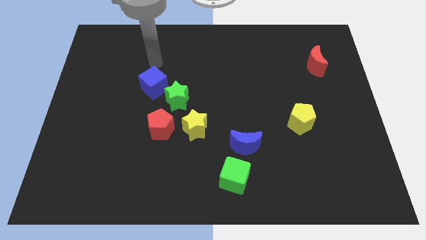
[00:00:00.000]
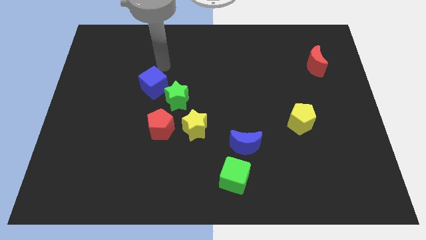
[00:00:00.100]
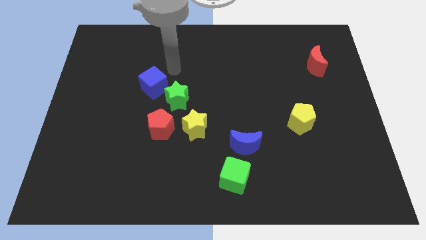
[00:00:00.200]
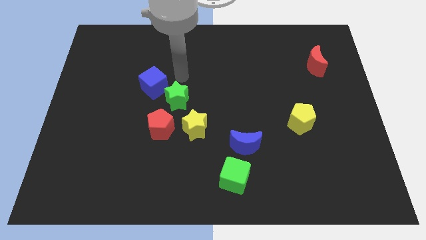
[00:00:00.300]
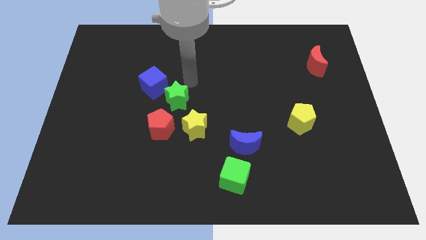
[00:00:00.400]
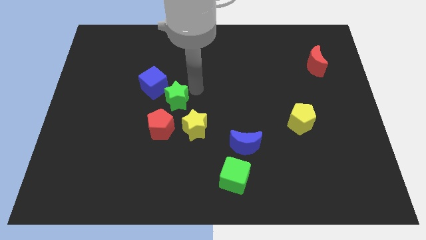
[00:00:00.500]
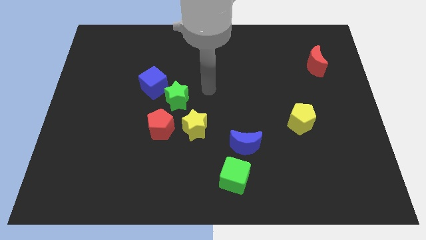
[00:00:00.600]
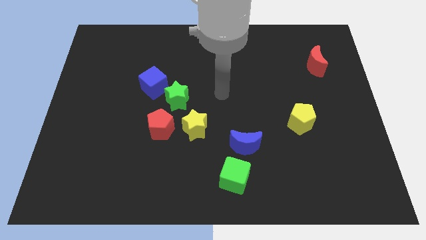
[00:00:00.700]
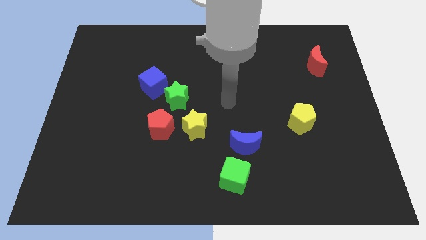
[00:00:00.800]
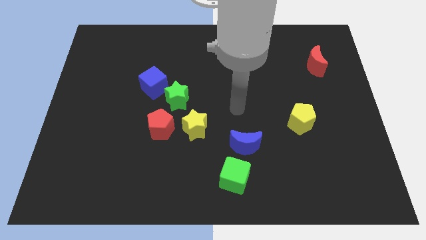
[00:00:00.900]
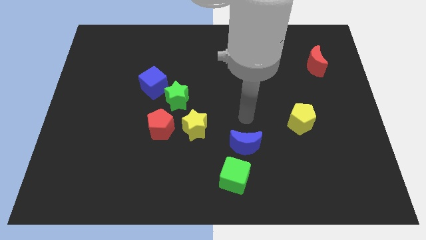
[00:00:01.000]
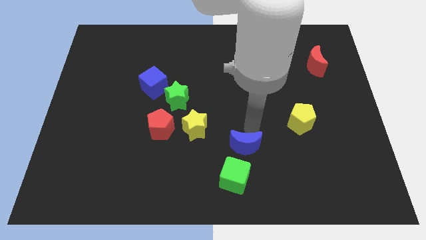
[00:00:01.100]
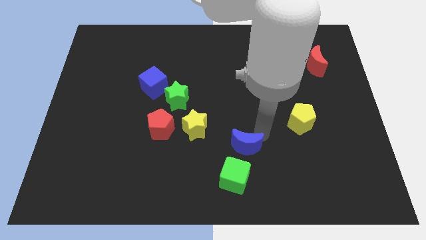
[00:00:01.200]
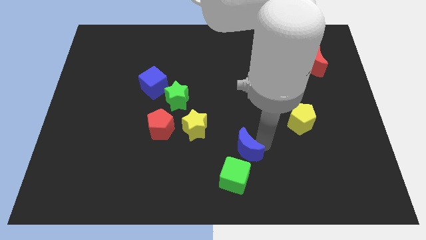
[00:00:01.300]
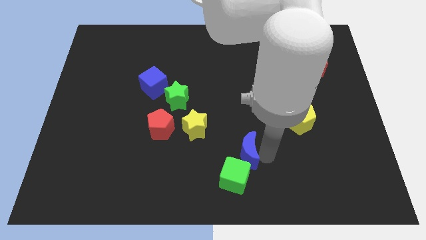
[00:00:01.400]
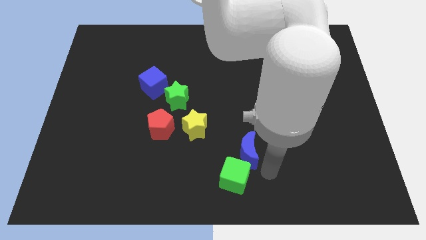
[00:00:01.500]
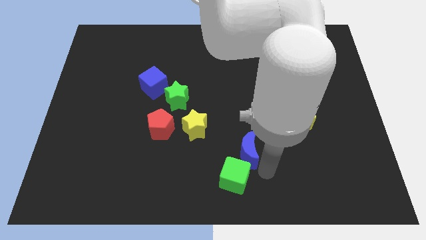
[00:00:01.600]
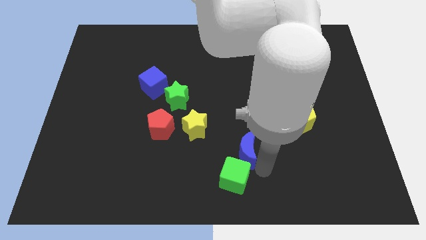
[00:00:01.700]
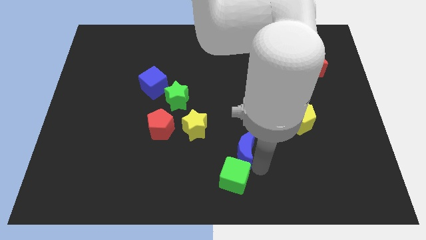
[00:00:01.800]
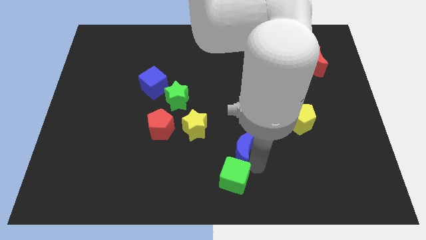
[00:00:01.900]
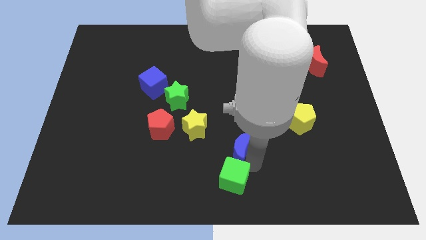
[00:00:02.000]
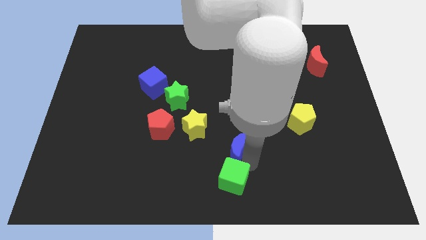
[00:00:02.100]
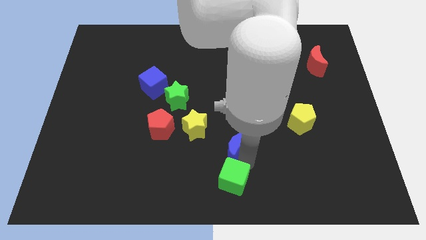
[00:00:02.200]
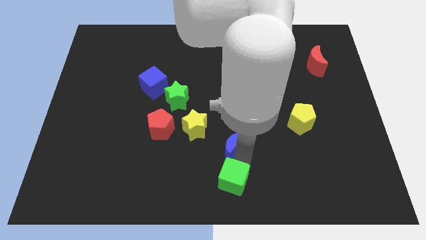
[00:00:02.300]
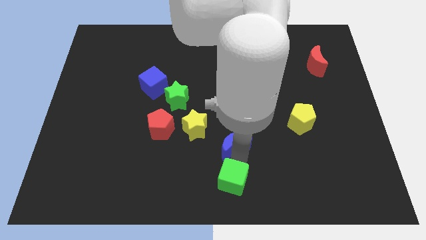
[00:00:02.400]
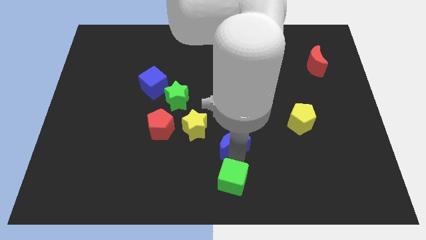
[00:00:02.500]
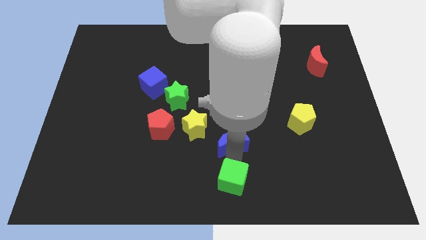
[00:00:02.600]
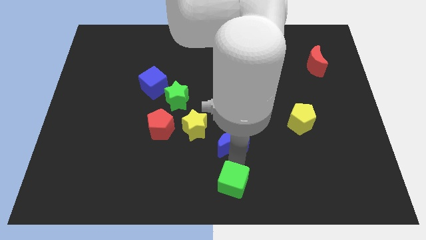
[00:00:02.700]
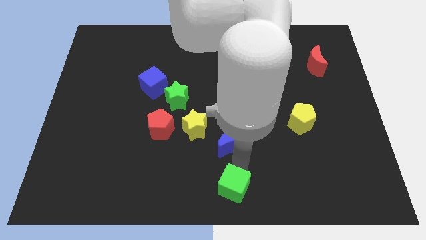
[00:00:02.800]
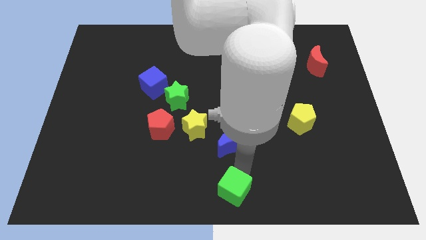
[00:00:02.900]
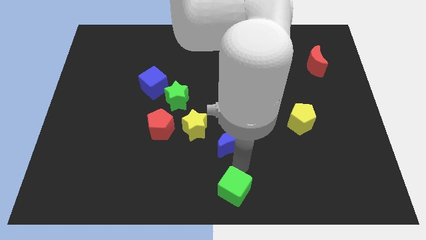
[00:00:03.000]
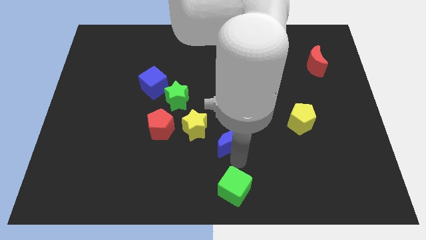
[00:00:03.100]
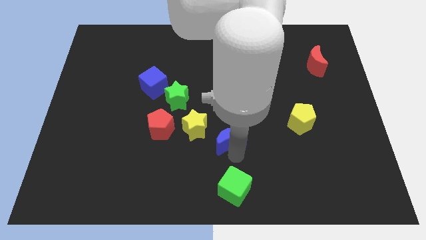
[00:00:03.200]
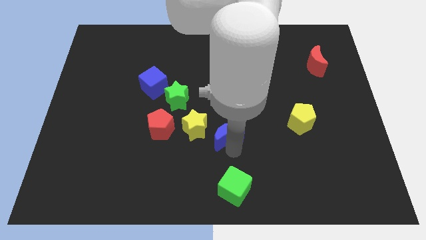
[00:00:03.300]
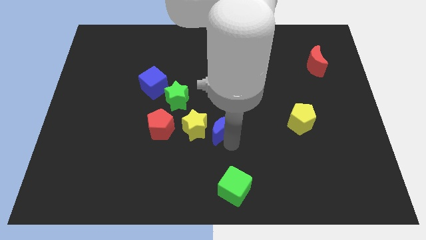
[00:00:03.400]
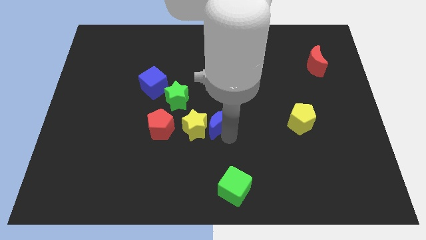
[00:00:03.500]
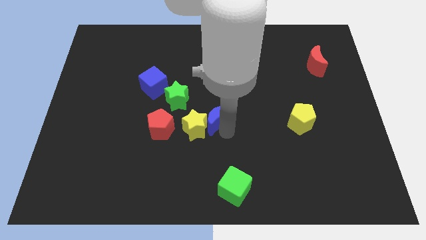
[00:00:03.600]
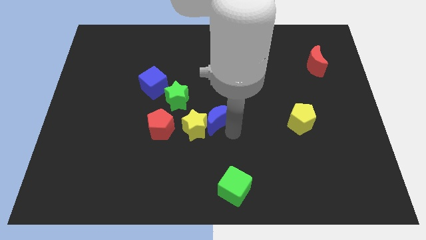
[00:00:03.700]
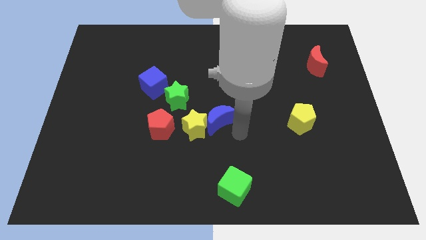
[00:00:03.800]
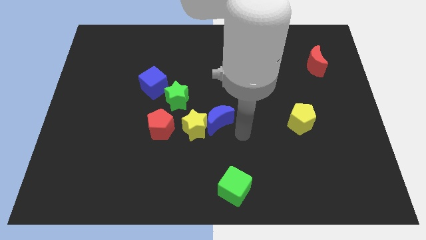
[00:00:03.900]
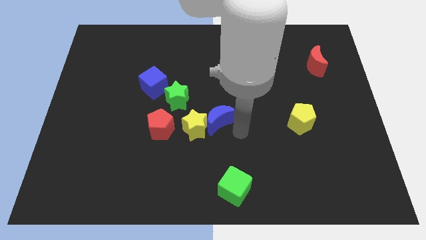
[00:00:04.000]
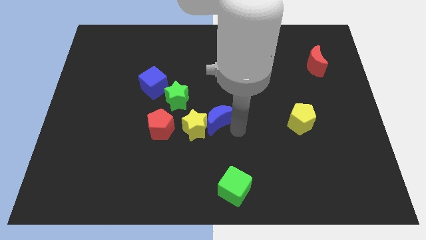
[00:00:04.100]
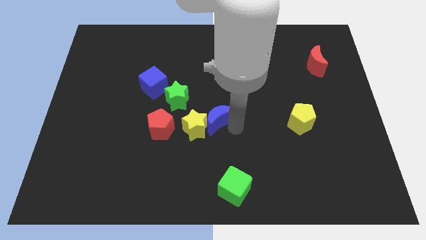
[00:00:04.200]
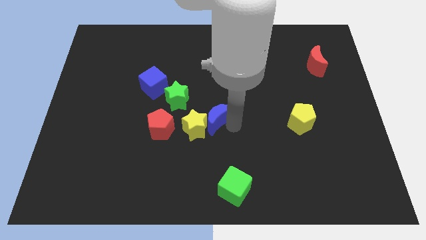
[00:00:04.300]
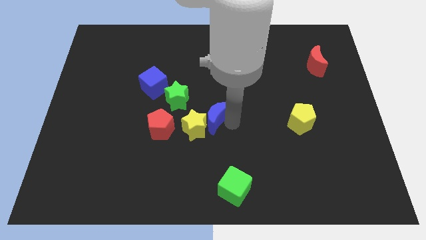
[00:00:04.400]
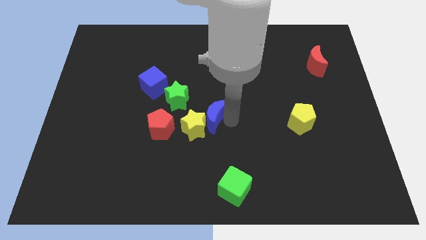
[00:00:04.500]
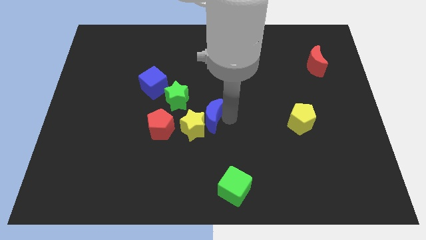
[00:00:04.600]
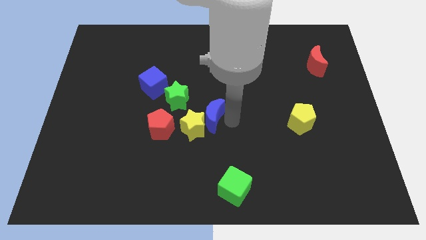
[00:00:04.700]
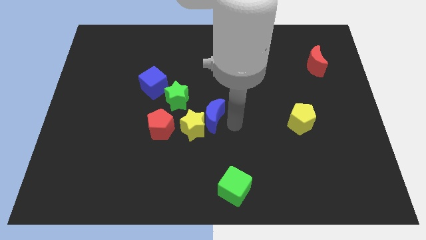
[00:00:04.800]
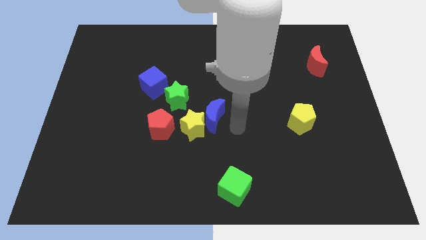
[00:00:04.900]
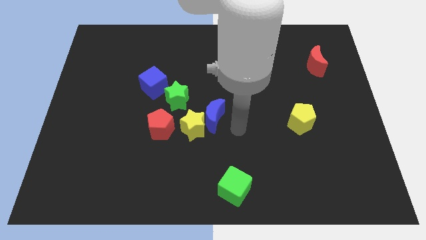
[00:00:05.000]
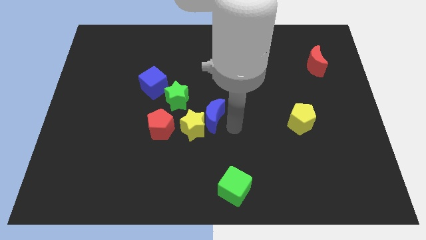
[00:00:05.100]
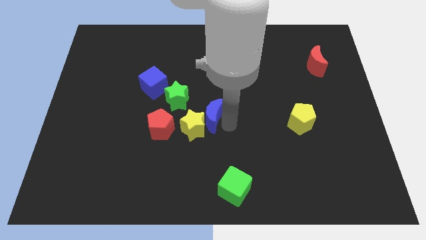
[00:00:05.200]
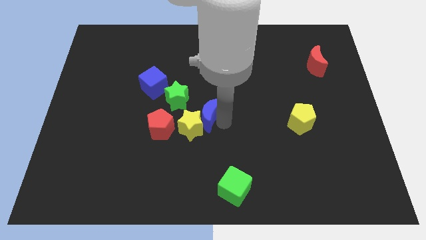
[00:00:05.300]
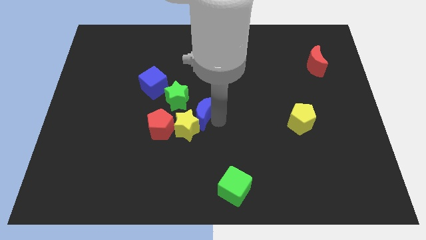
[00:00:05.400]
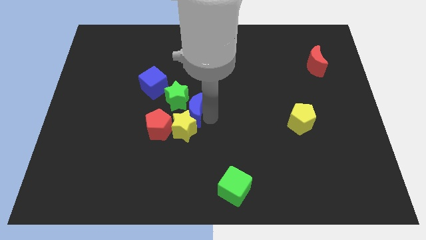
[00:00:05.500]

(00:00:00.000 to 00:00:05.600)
move the blue moon close to the green star

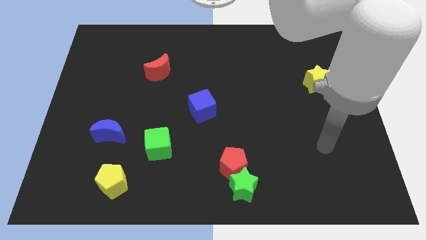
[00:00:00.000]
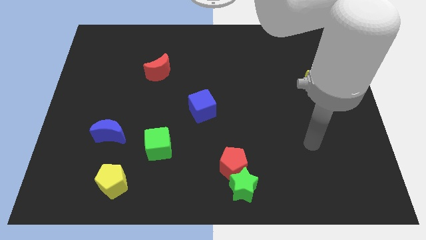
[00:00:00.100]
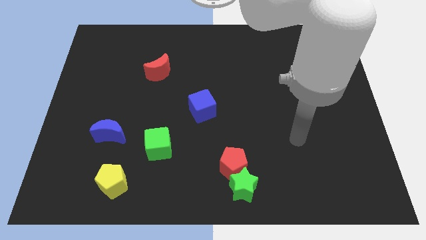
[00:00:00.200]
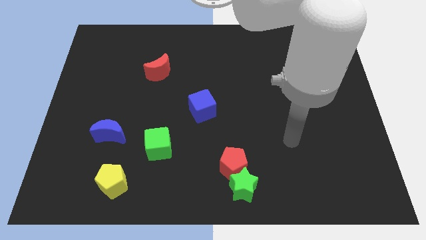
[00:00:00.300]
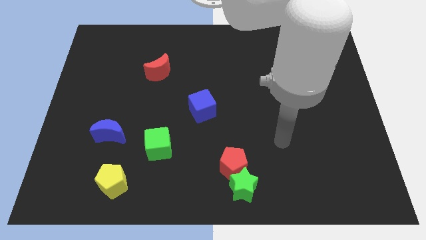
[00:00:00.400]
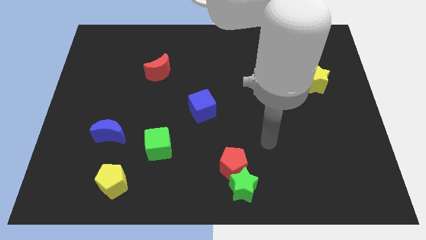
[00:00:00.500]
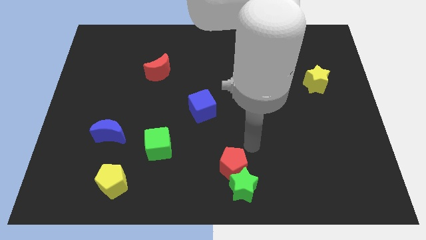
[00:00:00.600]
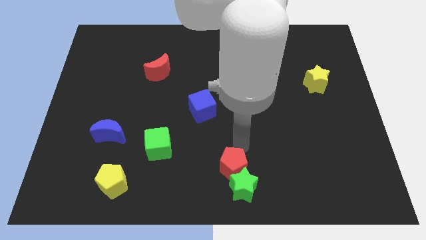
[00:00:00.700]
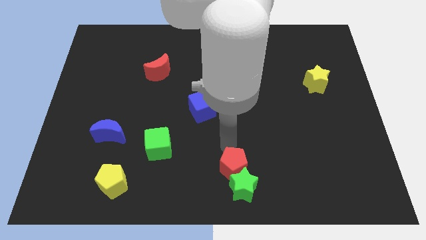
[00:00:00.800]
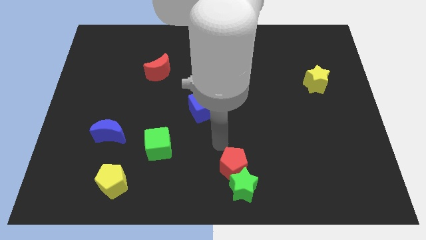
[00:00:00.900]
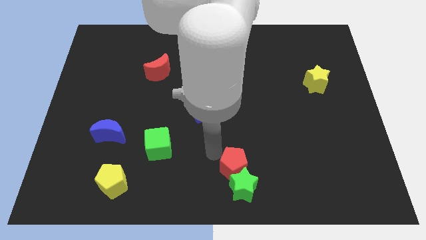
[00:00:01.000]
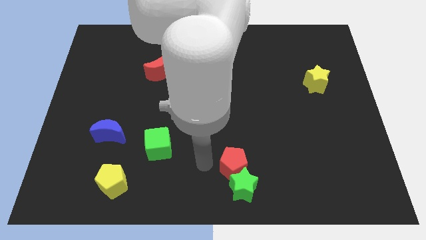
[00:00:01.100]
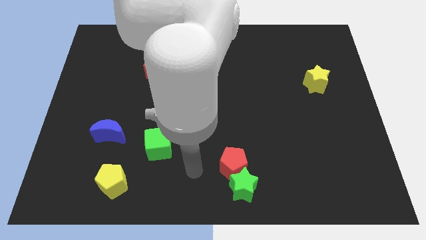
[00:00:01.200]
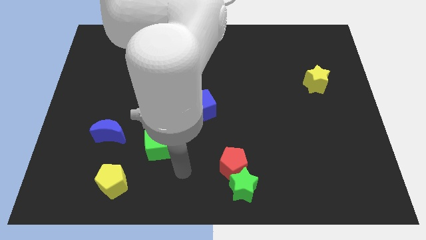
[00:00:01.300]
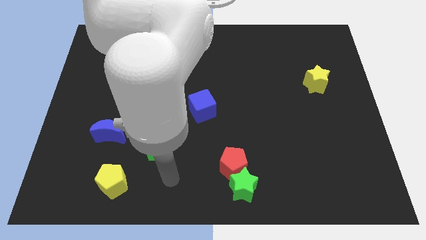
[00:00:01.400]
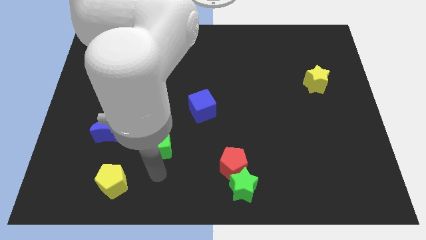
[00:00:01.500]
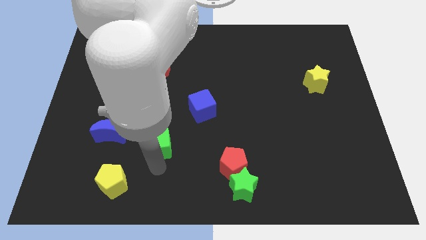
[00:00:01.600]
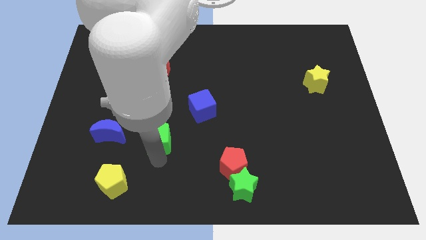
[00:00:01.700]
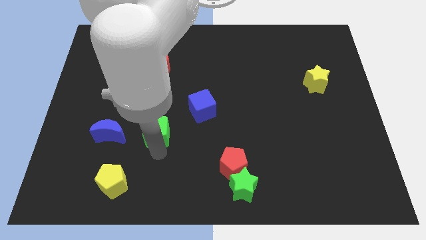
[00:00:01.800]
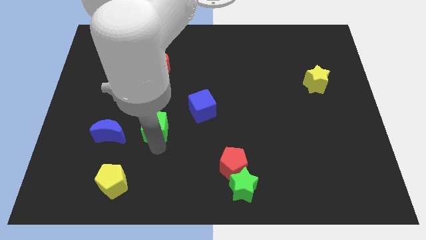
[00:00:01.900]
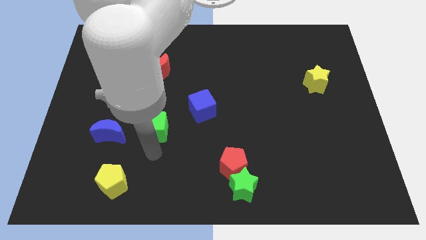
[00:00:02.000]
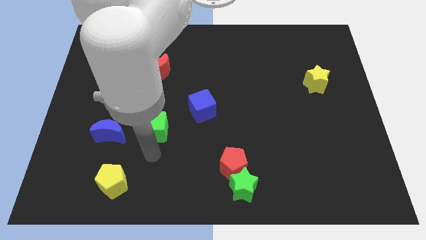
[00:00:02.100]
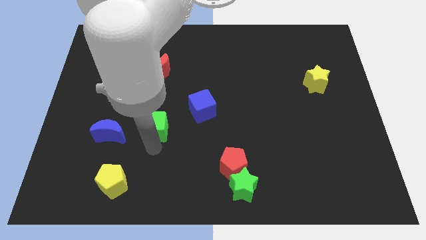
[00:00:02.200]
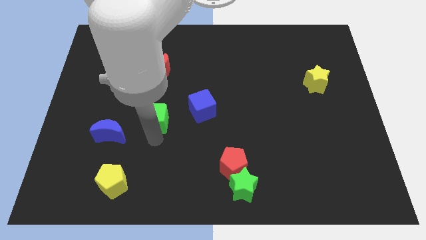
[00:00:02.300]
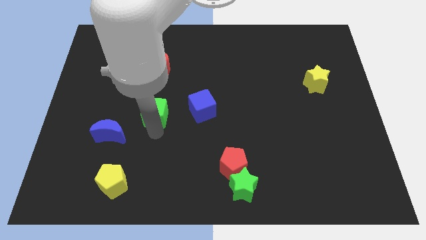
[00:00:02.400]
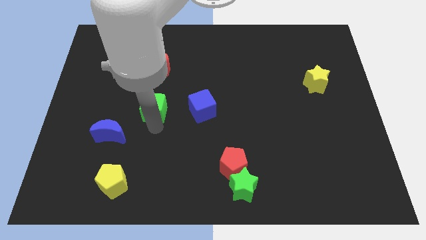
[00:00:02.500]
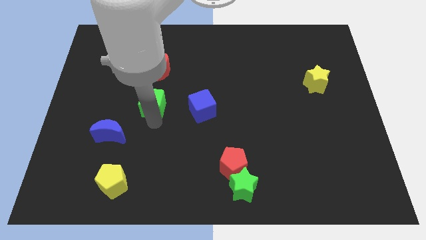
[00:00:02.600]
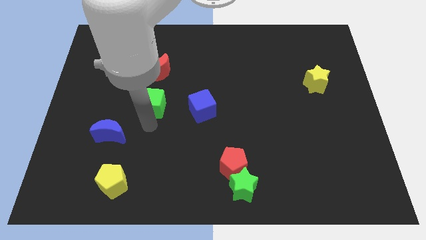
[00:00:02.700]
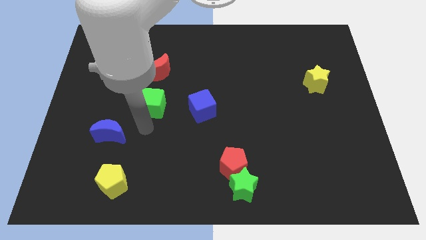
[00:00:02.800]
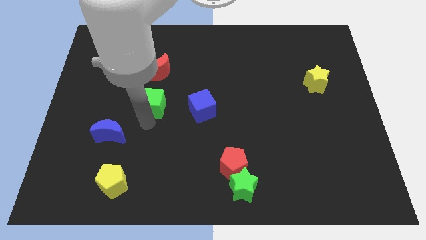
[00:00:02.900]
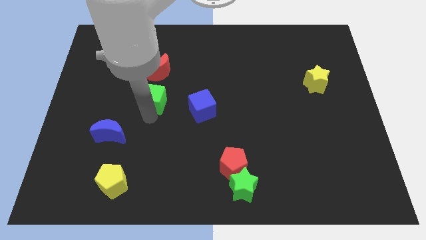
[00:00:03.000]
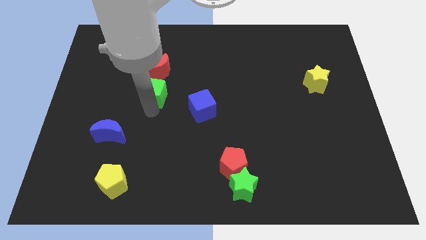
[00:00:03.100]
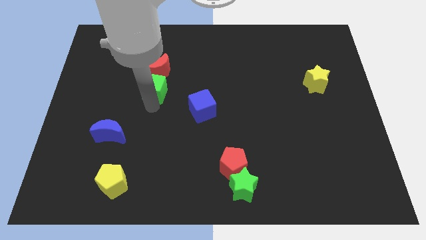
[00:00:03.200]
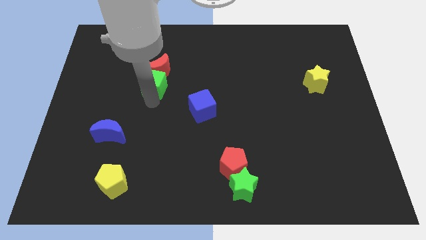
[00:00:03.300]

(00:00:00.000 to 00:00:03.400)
slide the green cube towards the red moon
